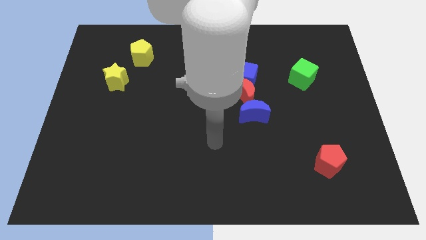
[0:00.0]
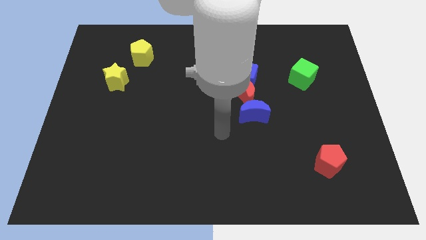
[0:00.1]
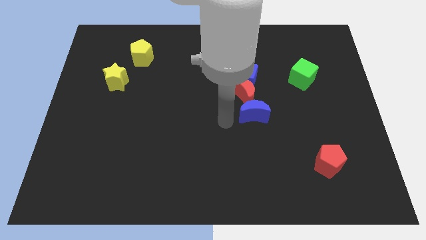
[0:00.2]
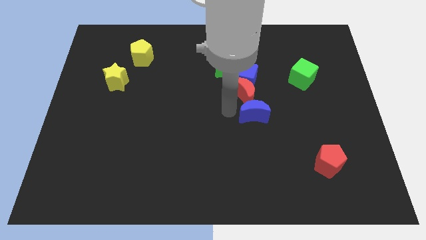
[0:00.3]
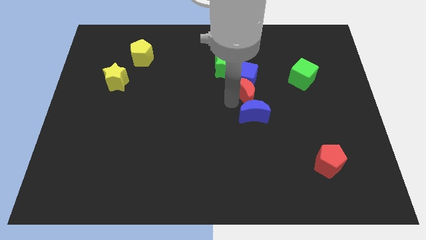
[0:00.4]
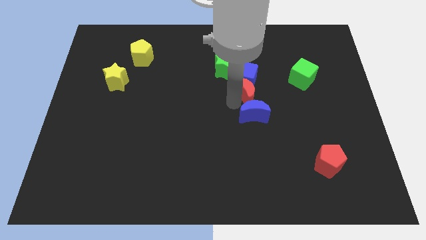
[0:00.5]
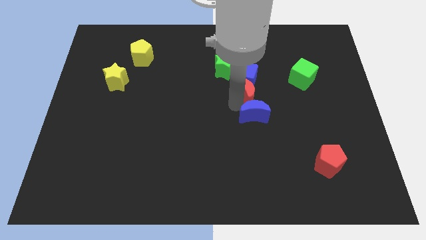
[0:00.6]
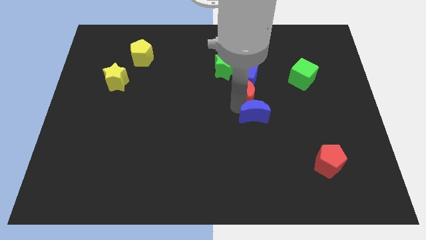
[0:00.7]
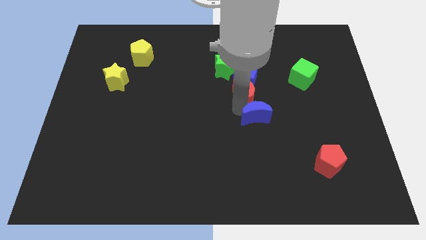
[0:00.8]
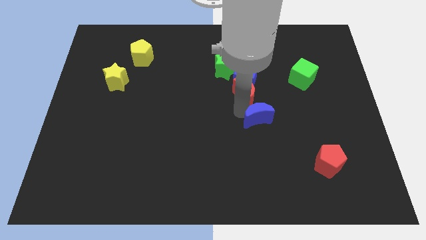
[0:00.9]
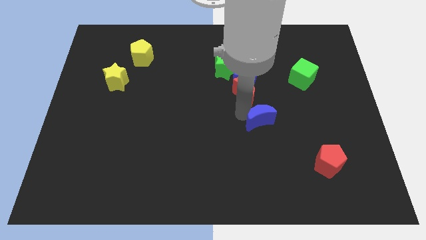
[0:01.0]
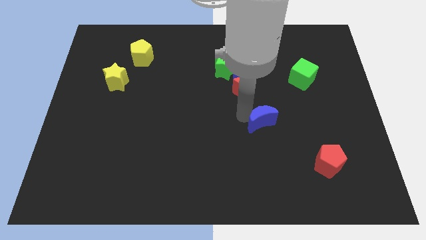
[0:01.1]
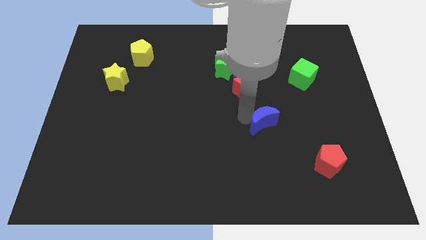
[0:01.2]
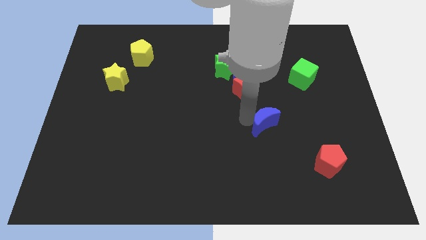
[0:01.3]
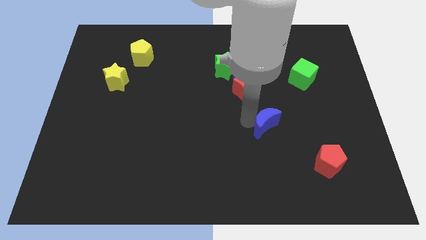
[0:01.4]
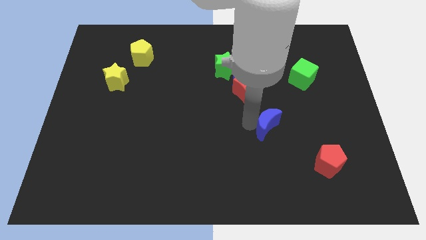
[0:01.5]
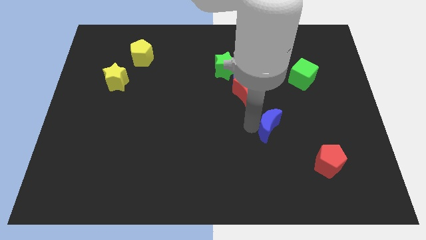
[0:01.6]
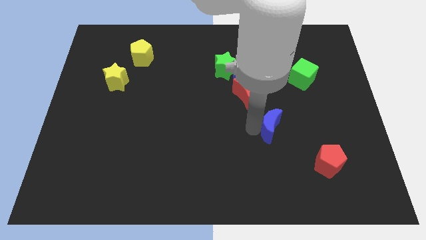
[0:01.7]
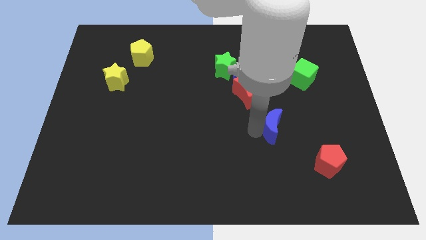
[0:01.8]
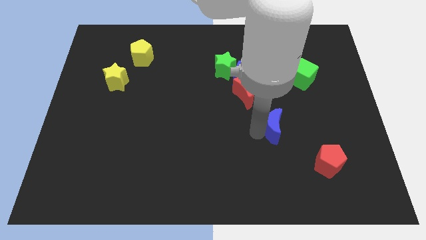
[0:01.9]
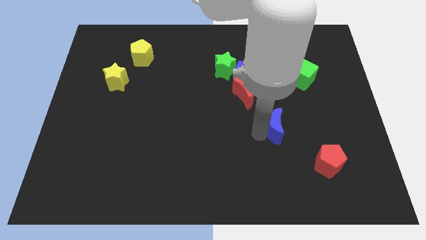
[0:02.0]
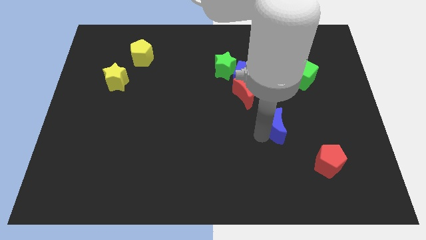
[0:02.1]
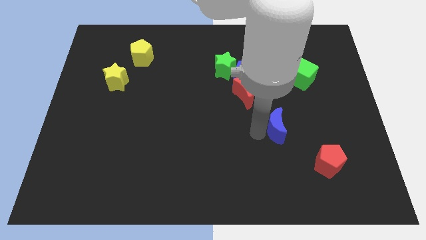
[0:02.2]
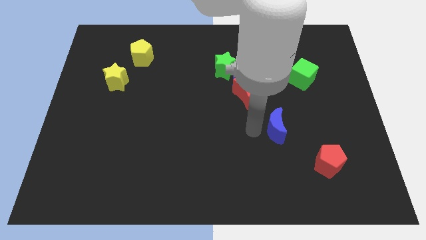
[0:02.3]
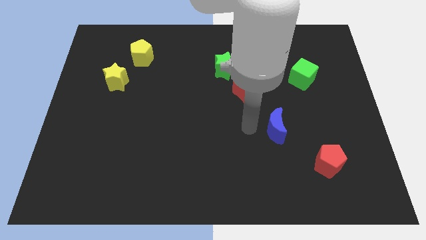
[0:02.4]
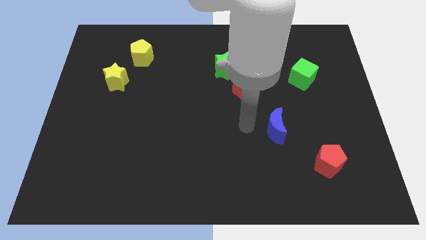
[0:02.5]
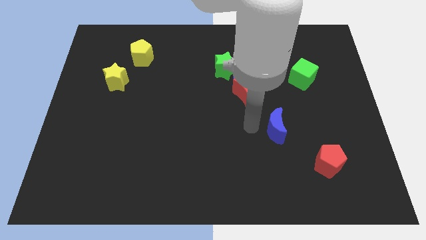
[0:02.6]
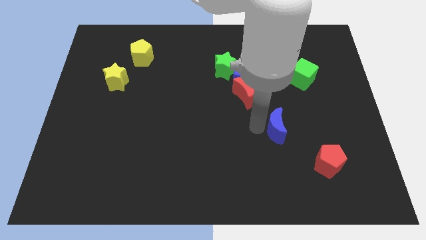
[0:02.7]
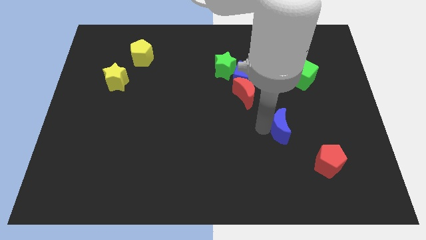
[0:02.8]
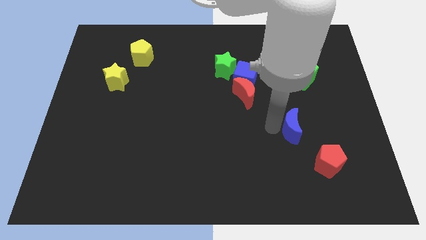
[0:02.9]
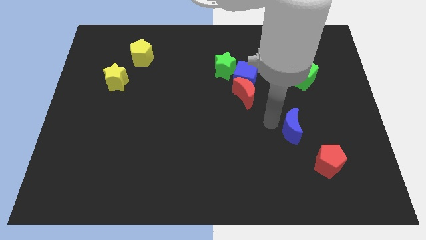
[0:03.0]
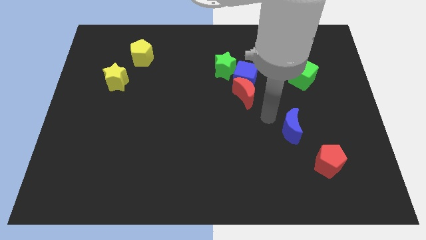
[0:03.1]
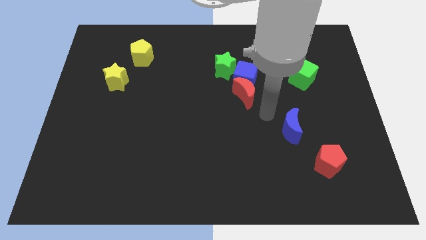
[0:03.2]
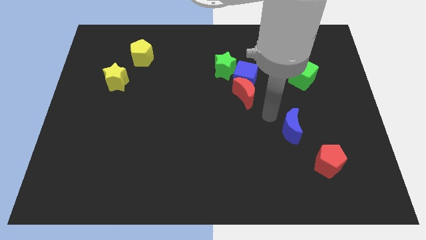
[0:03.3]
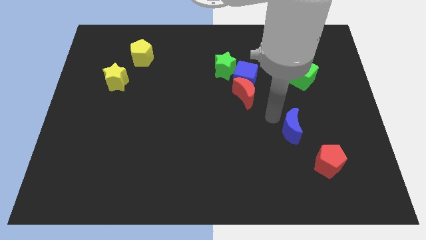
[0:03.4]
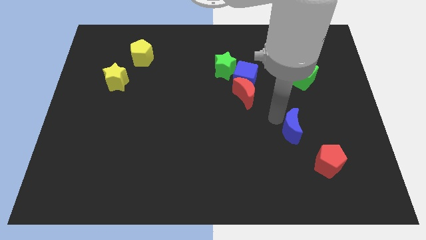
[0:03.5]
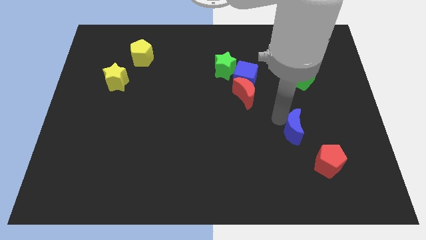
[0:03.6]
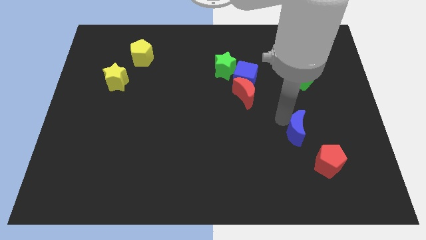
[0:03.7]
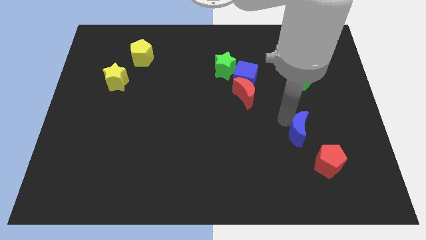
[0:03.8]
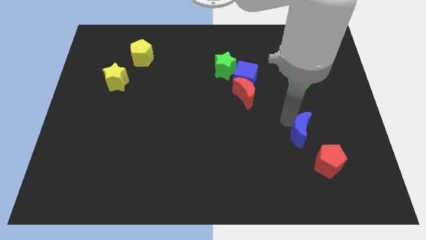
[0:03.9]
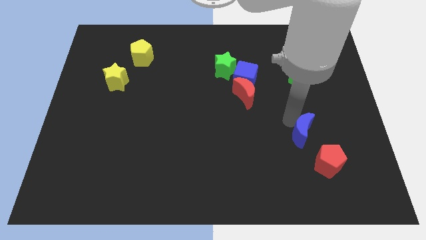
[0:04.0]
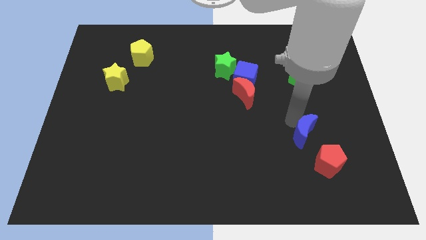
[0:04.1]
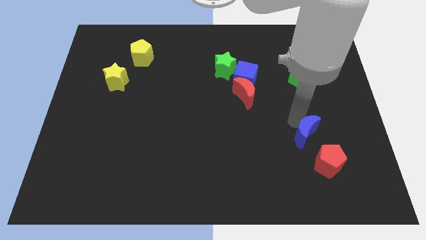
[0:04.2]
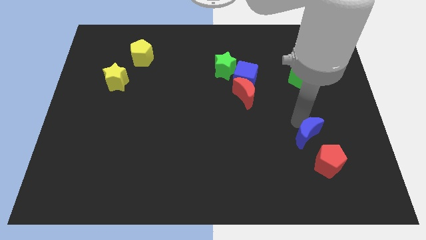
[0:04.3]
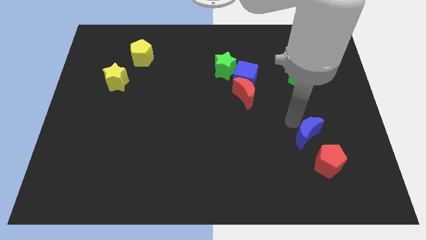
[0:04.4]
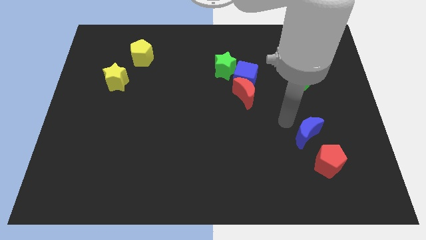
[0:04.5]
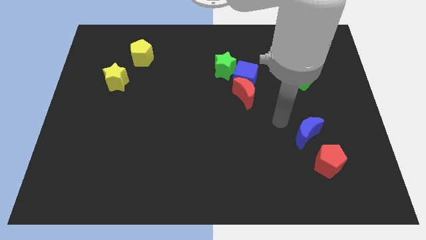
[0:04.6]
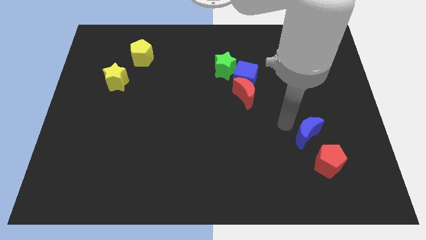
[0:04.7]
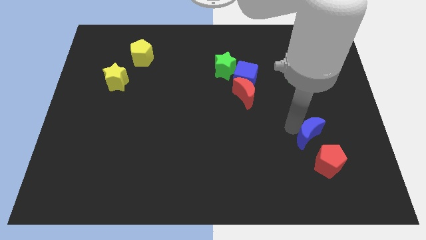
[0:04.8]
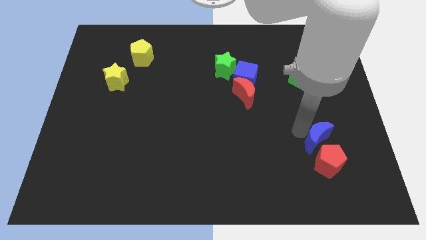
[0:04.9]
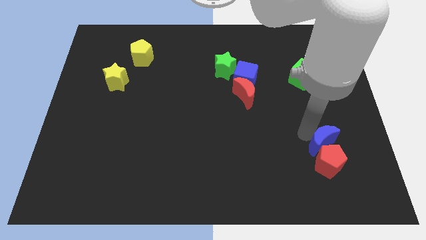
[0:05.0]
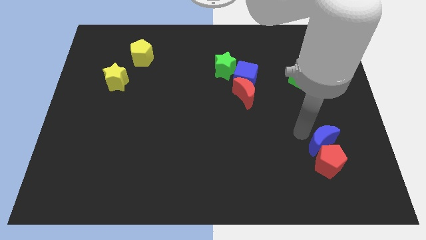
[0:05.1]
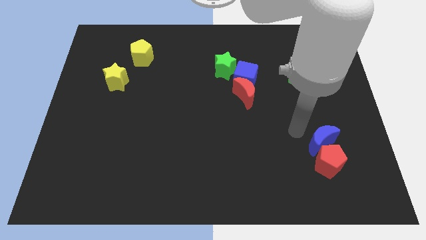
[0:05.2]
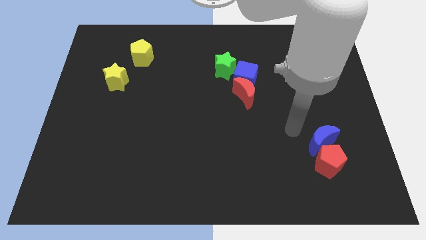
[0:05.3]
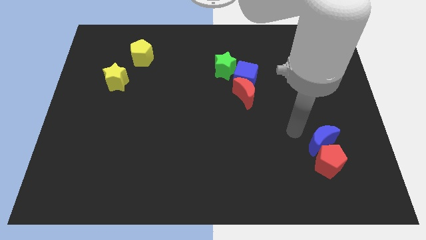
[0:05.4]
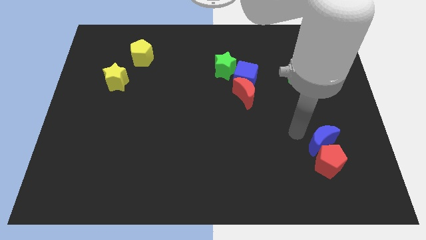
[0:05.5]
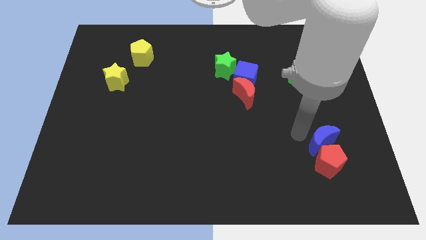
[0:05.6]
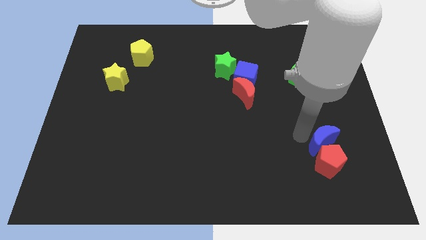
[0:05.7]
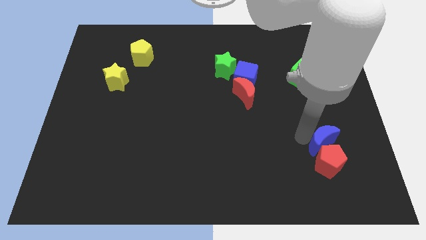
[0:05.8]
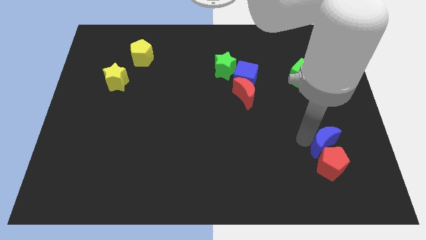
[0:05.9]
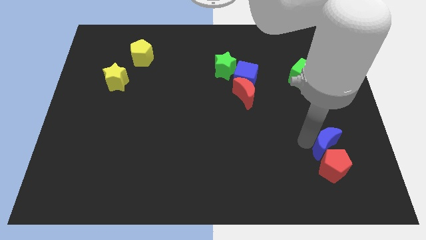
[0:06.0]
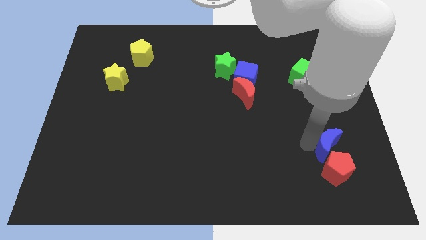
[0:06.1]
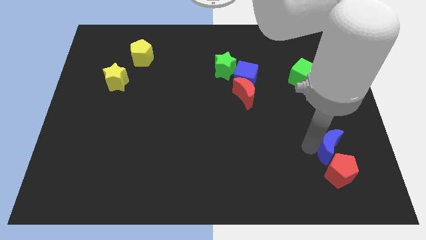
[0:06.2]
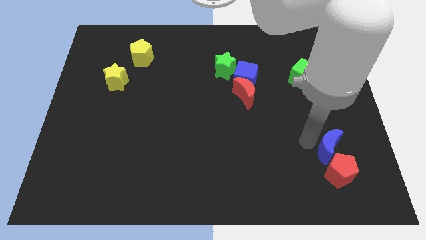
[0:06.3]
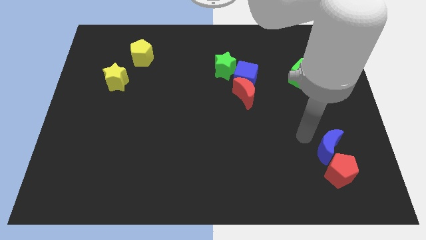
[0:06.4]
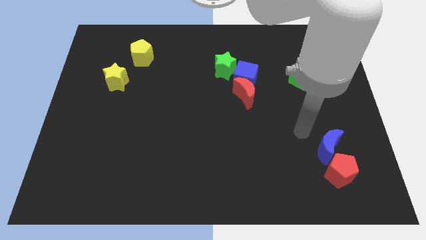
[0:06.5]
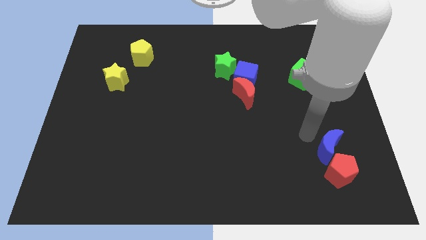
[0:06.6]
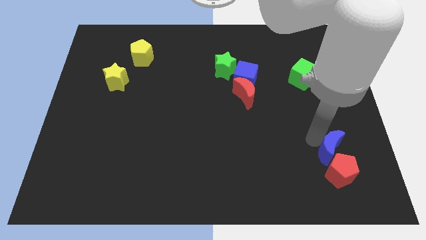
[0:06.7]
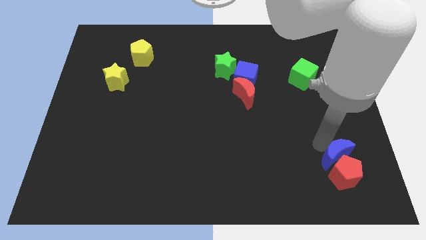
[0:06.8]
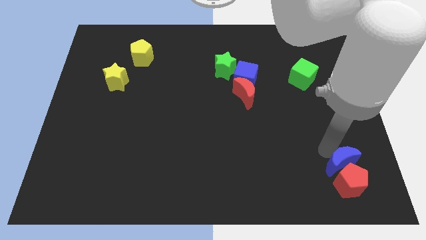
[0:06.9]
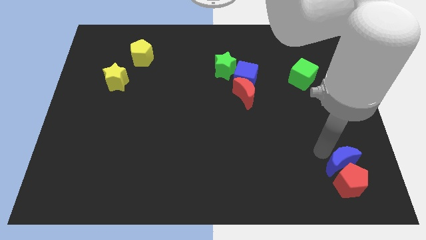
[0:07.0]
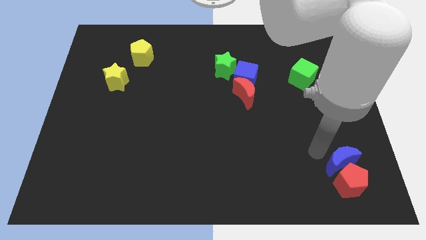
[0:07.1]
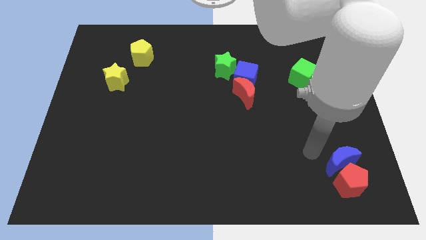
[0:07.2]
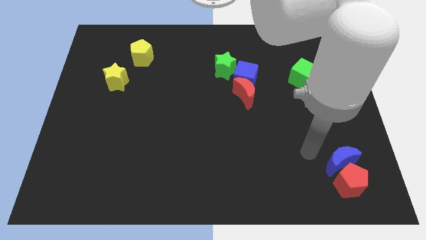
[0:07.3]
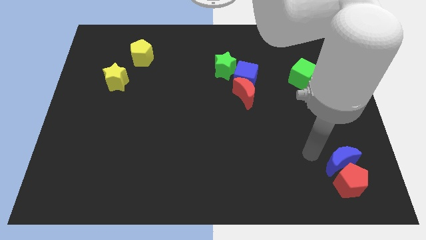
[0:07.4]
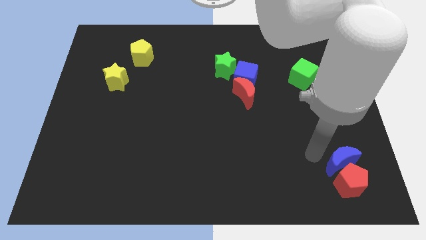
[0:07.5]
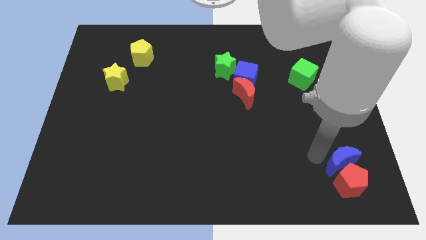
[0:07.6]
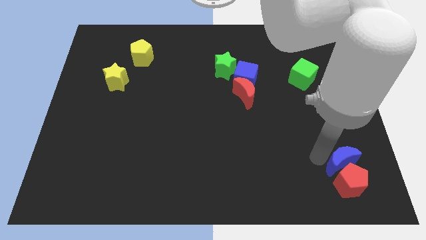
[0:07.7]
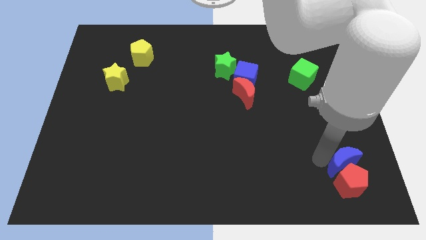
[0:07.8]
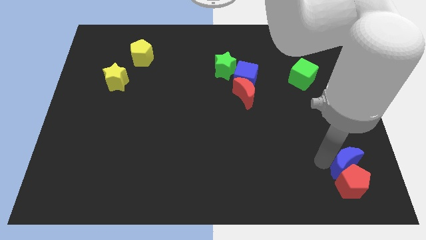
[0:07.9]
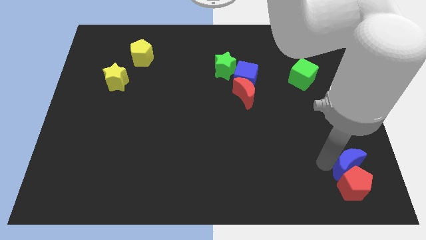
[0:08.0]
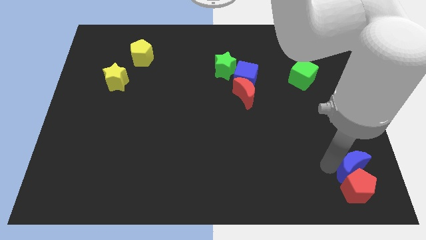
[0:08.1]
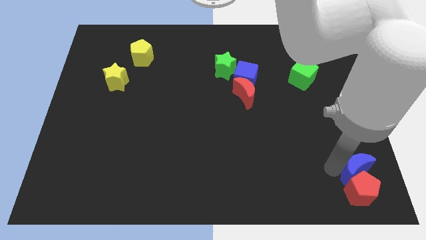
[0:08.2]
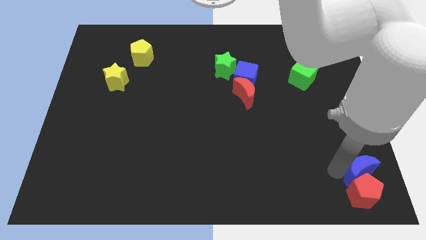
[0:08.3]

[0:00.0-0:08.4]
move the blue moon to the lower right corner
